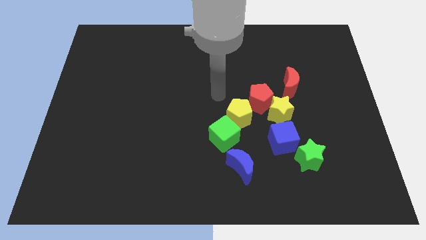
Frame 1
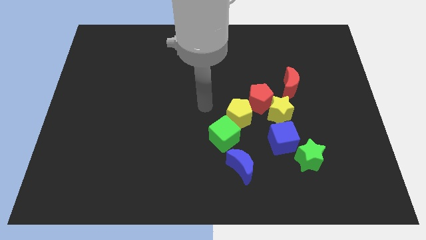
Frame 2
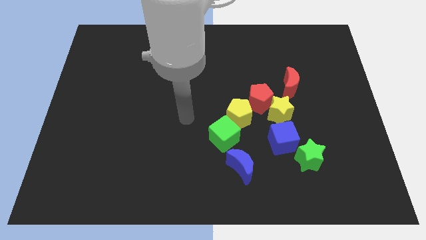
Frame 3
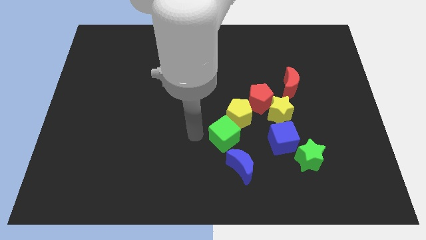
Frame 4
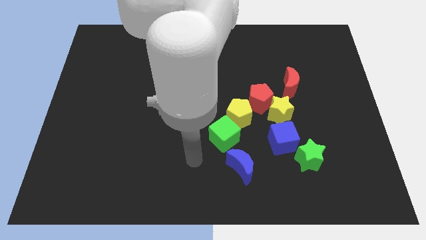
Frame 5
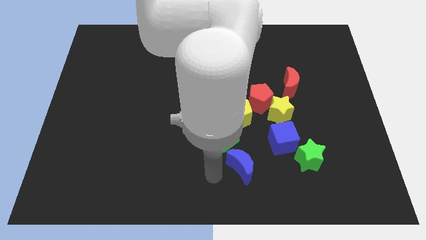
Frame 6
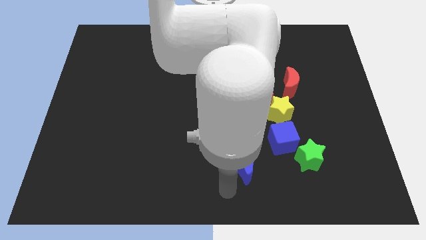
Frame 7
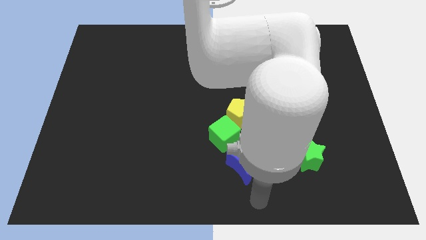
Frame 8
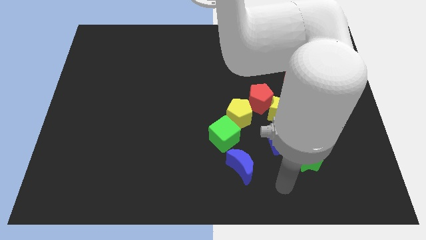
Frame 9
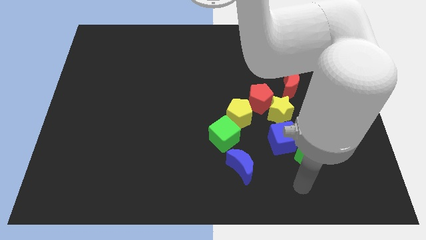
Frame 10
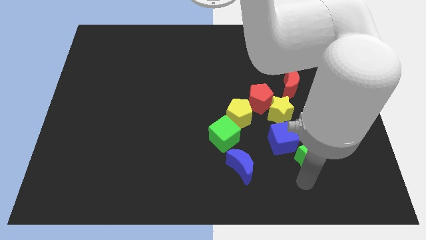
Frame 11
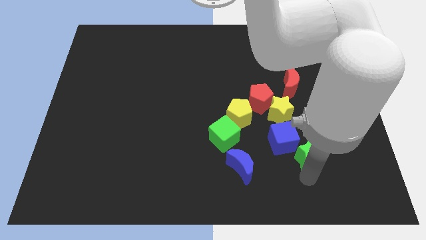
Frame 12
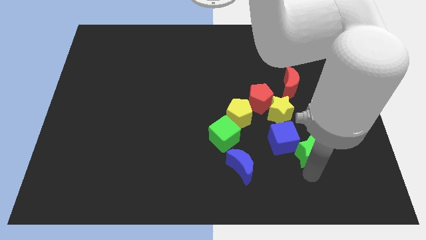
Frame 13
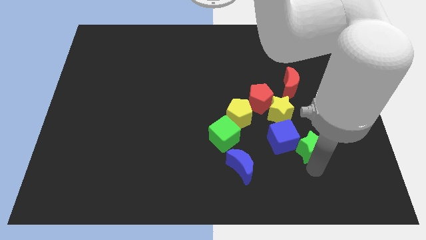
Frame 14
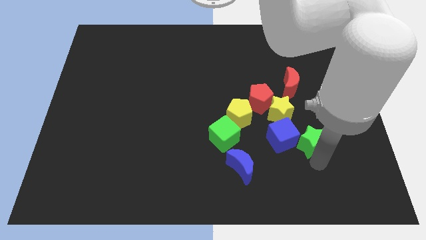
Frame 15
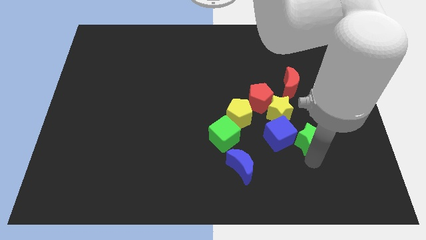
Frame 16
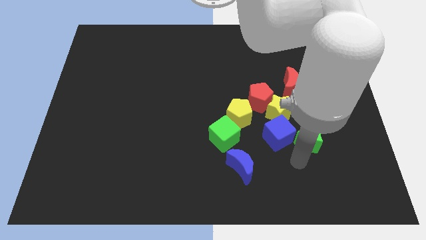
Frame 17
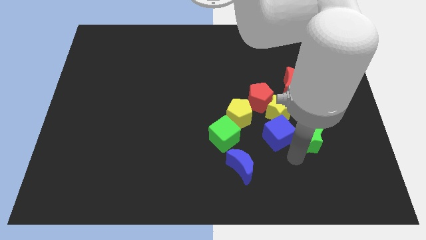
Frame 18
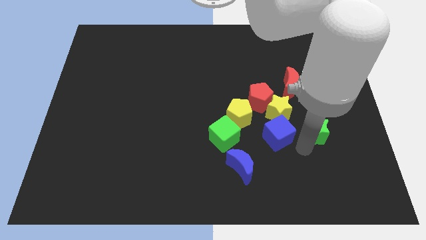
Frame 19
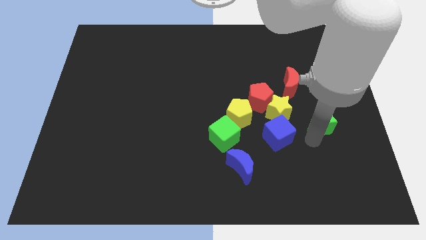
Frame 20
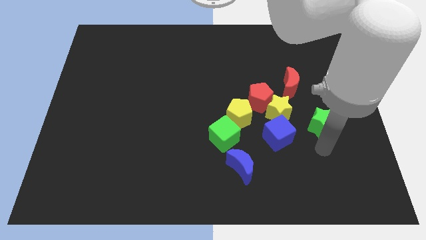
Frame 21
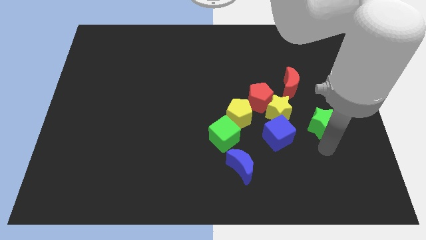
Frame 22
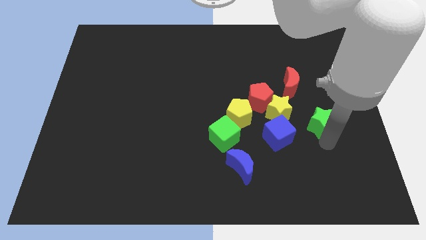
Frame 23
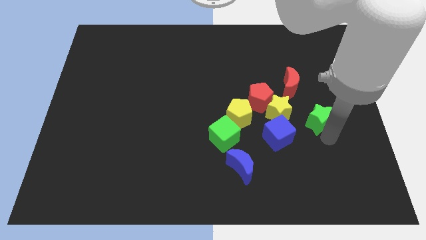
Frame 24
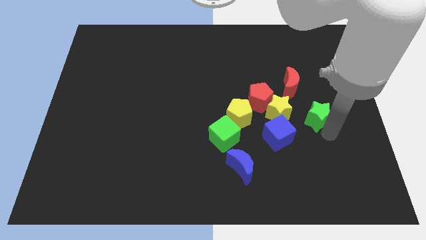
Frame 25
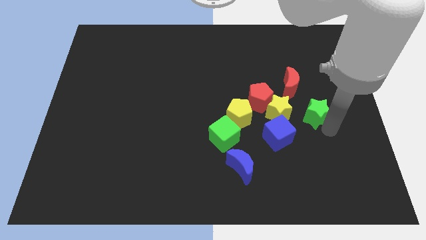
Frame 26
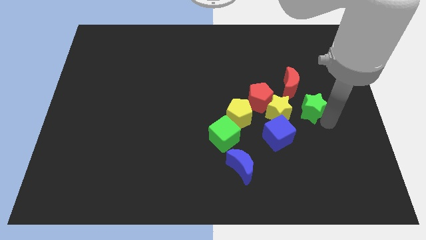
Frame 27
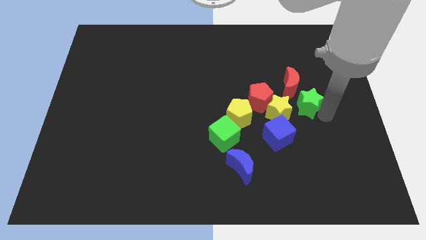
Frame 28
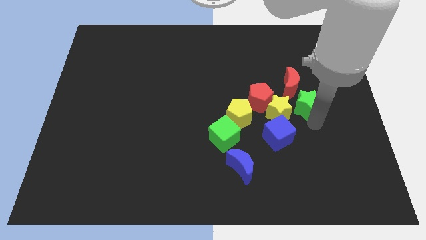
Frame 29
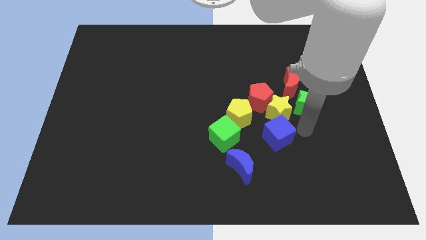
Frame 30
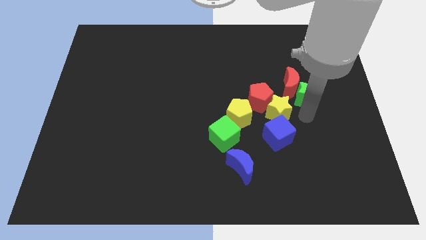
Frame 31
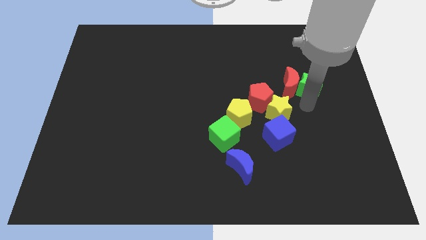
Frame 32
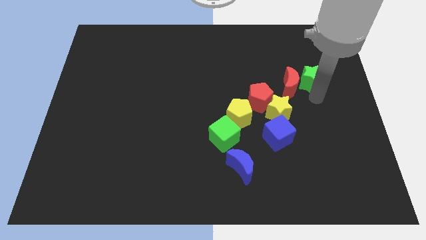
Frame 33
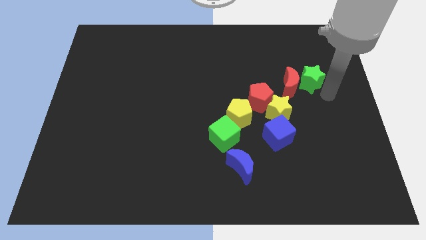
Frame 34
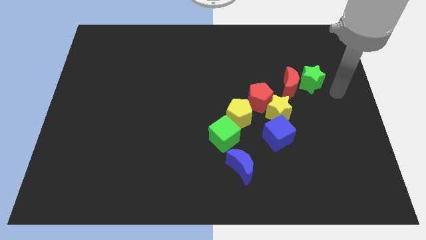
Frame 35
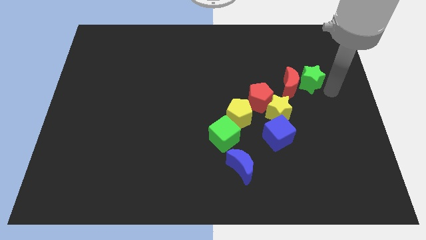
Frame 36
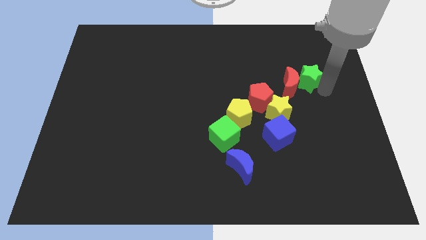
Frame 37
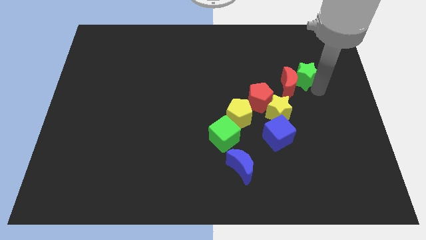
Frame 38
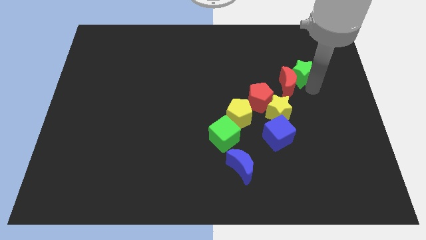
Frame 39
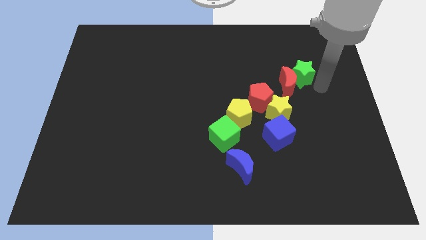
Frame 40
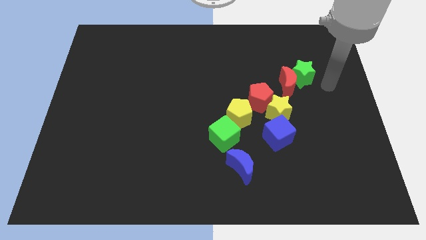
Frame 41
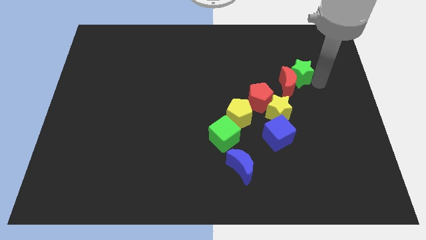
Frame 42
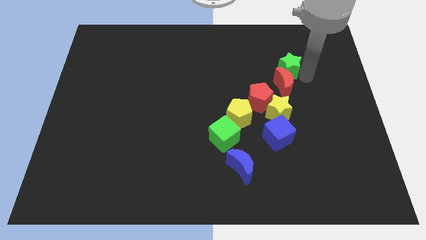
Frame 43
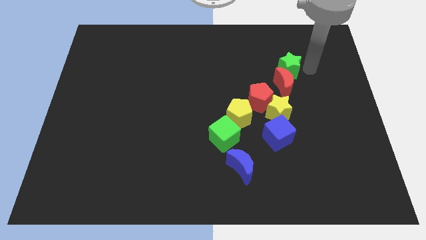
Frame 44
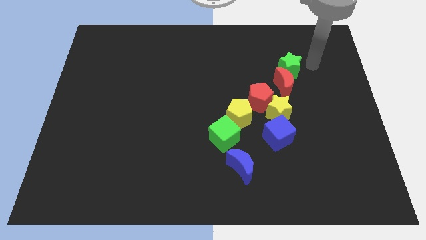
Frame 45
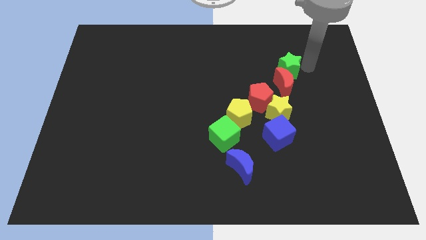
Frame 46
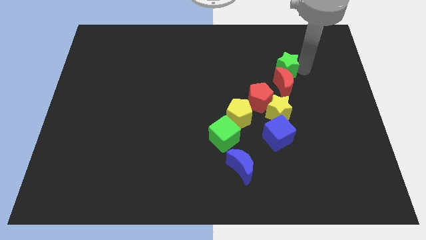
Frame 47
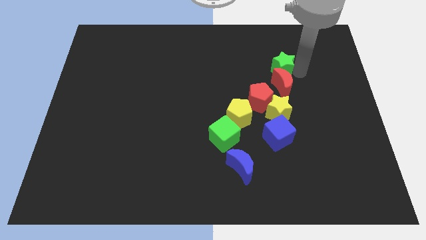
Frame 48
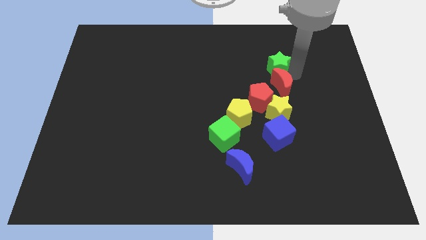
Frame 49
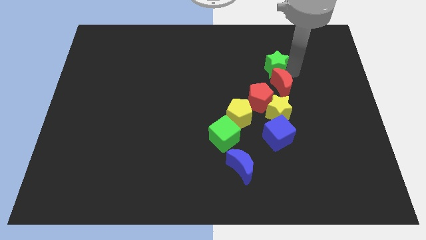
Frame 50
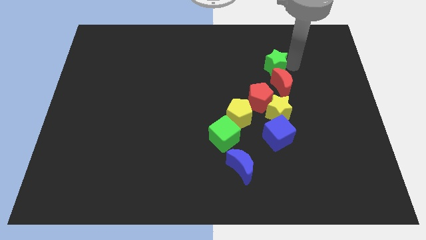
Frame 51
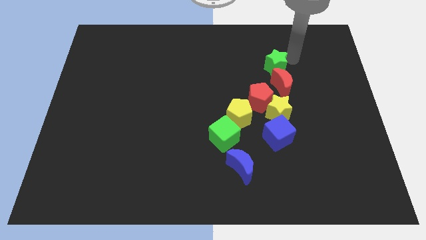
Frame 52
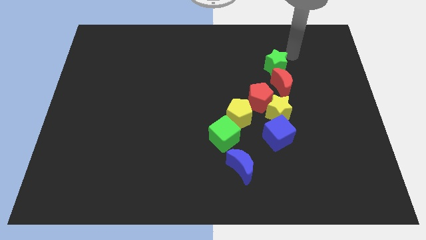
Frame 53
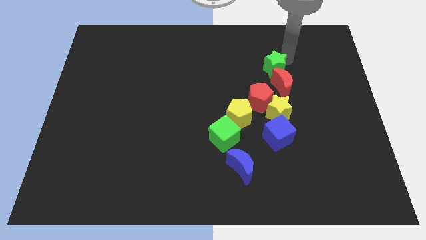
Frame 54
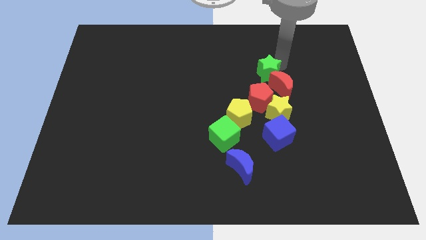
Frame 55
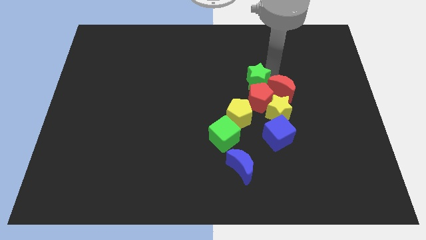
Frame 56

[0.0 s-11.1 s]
slide the green star to the top left side of the red pentagon
